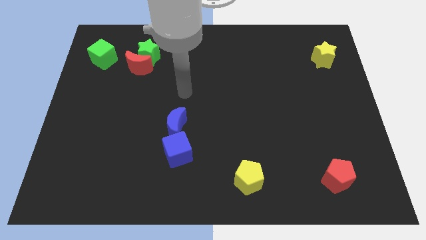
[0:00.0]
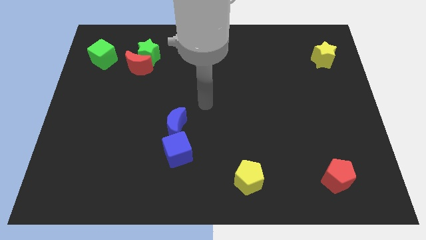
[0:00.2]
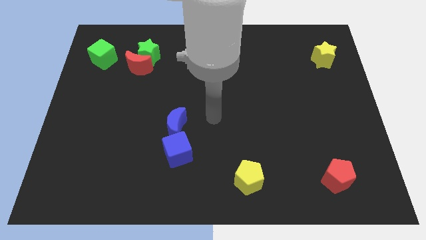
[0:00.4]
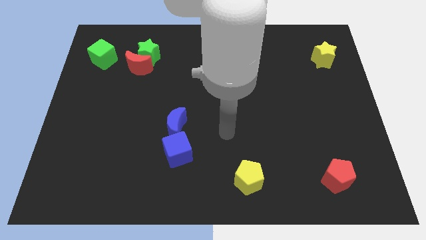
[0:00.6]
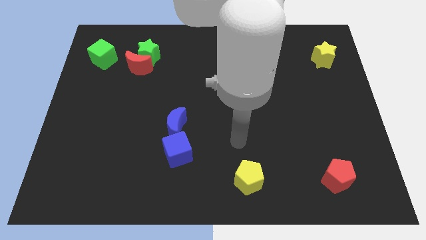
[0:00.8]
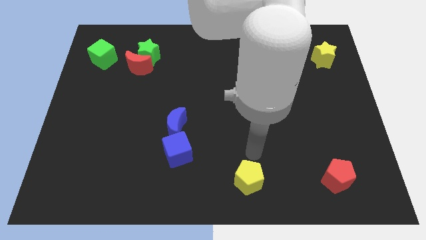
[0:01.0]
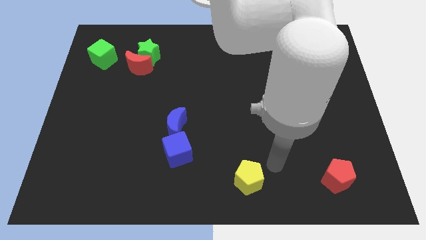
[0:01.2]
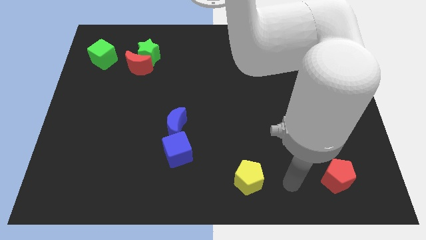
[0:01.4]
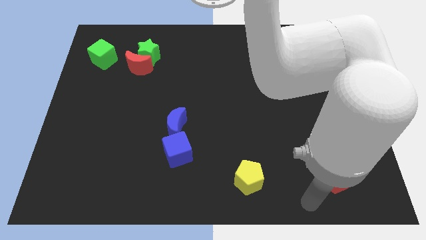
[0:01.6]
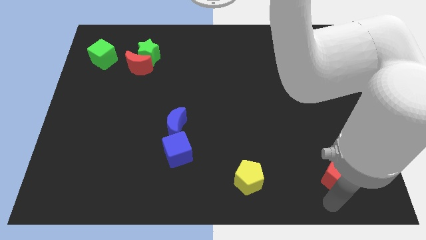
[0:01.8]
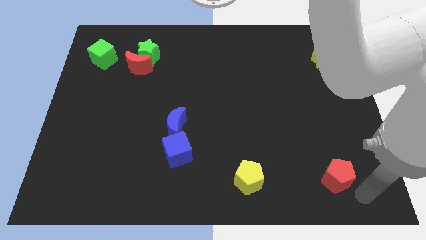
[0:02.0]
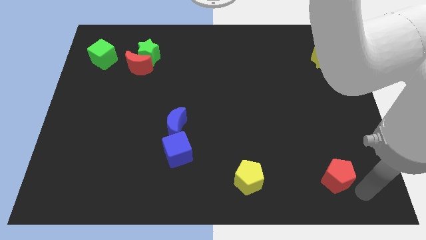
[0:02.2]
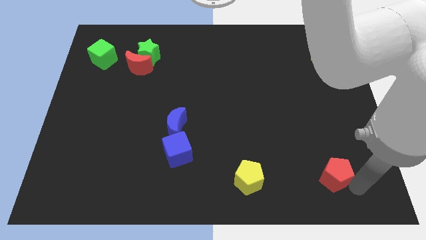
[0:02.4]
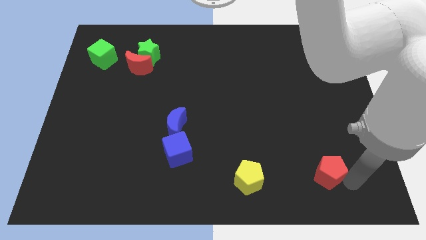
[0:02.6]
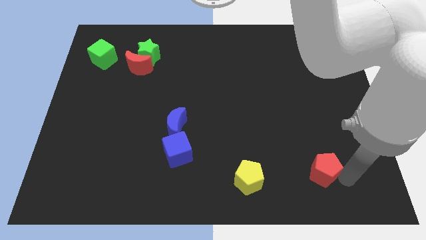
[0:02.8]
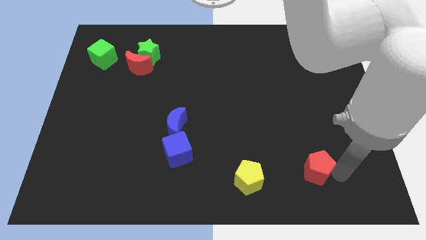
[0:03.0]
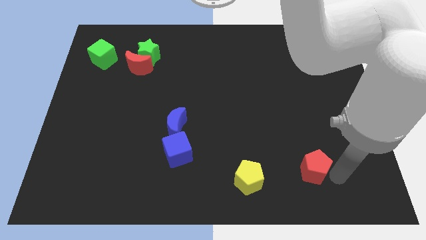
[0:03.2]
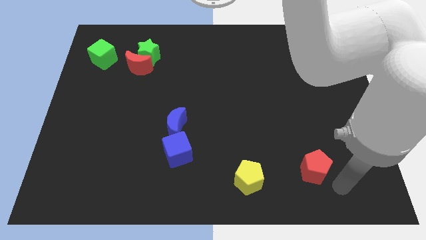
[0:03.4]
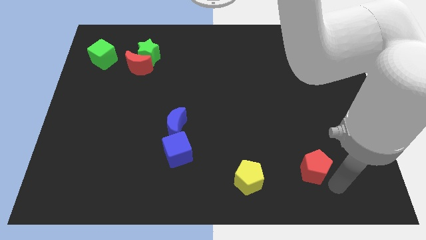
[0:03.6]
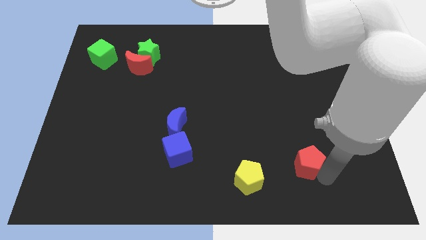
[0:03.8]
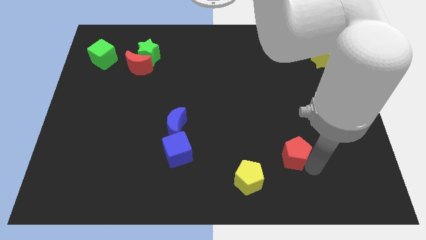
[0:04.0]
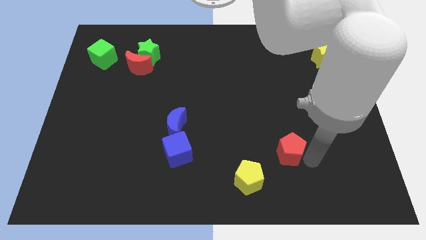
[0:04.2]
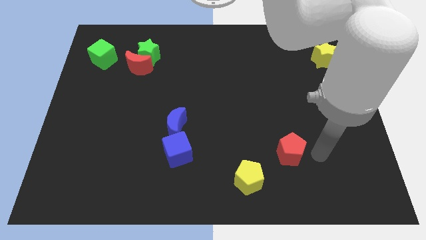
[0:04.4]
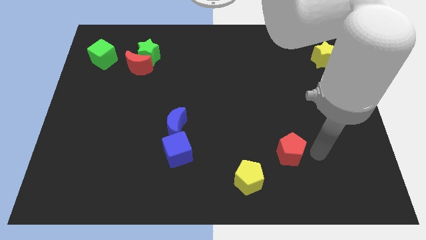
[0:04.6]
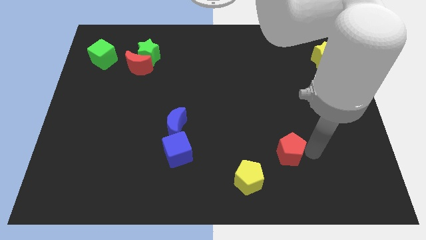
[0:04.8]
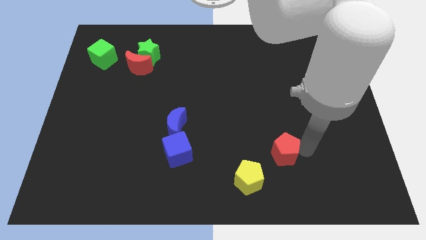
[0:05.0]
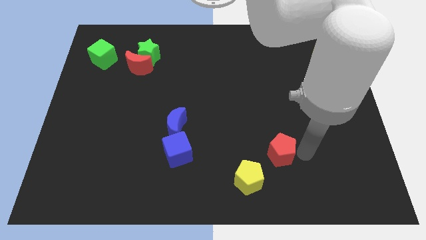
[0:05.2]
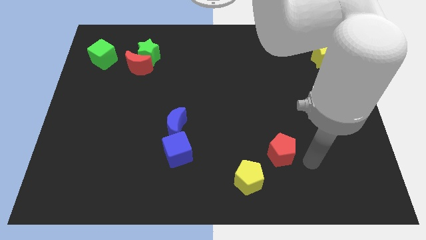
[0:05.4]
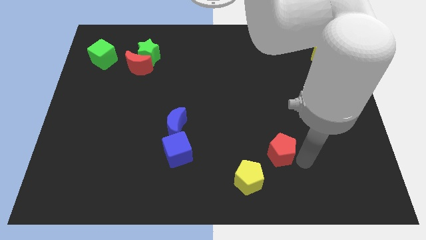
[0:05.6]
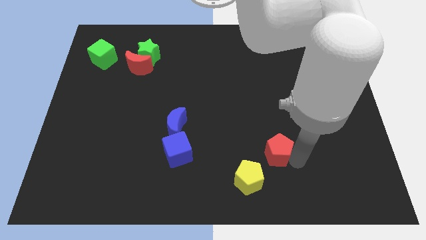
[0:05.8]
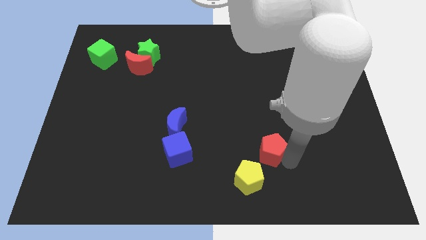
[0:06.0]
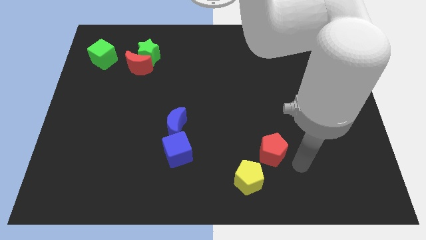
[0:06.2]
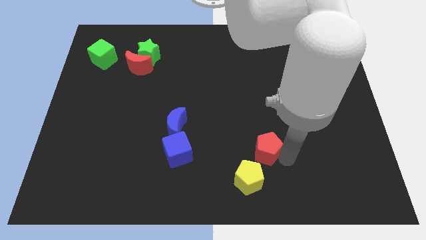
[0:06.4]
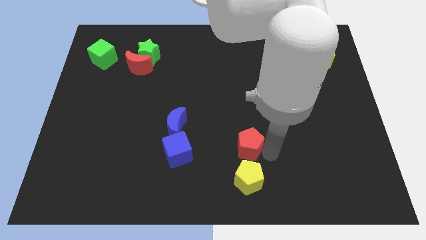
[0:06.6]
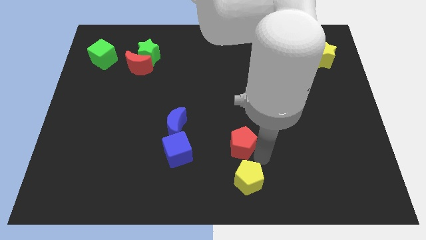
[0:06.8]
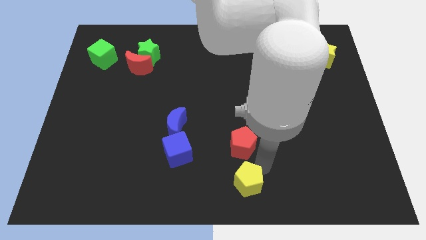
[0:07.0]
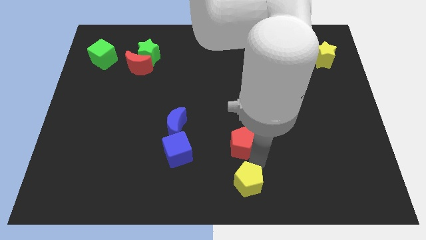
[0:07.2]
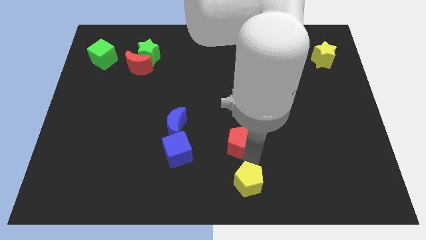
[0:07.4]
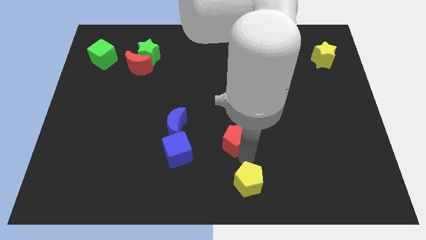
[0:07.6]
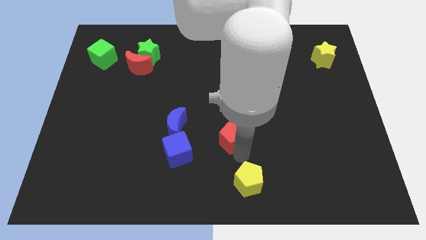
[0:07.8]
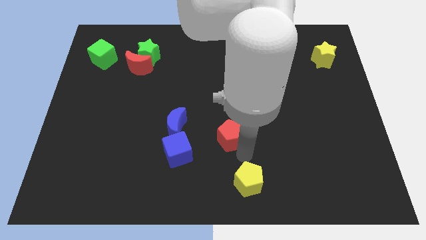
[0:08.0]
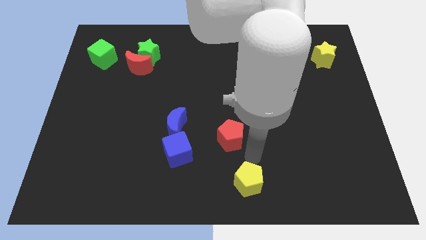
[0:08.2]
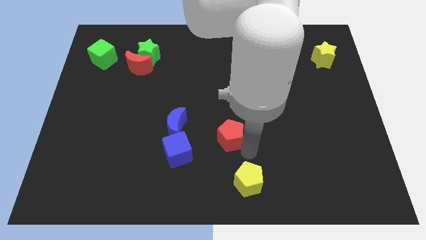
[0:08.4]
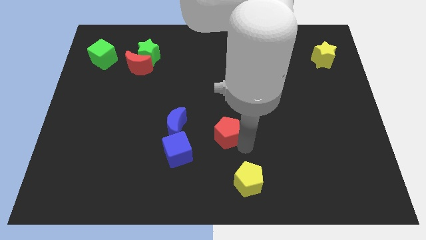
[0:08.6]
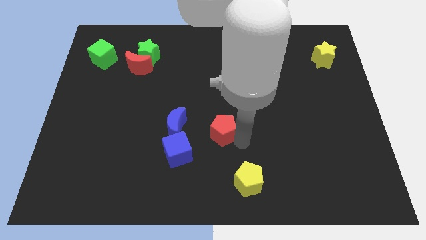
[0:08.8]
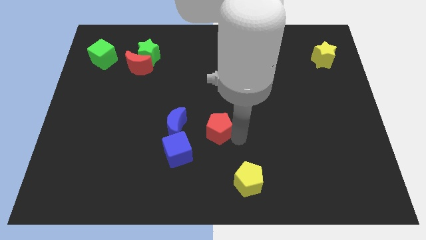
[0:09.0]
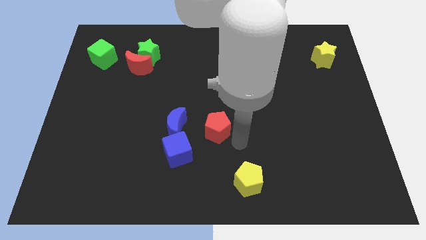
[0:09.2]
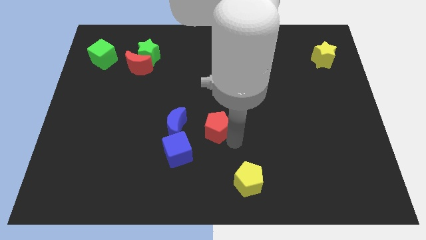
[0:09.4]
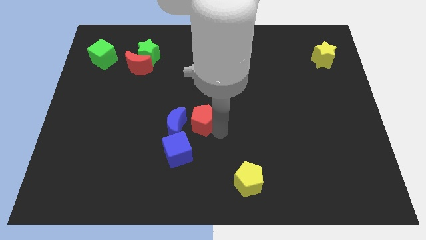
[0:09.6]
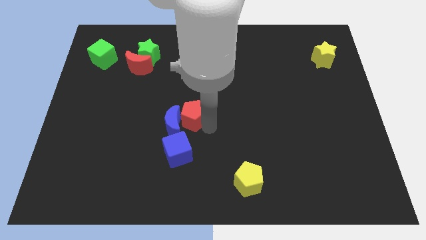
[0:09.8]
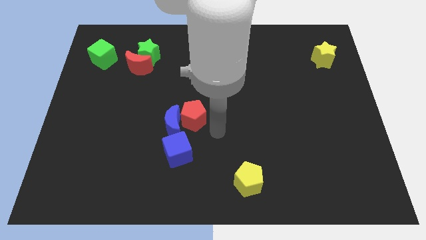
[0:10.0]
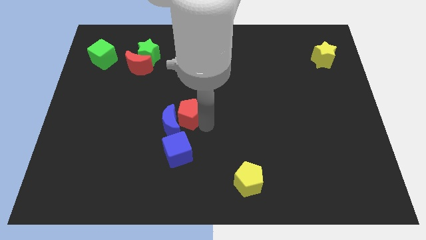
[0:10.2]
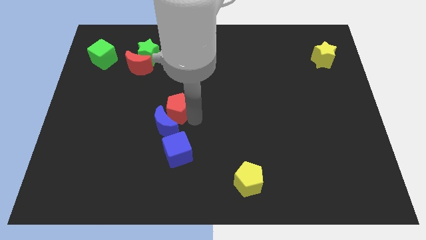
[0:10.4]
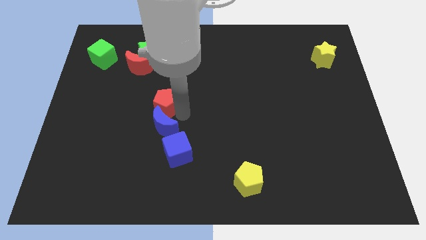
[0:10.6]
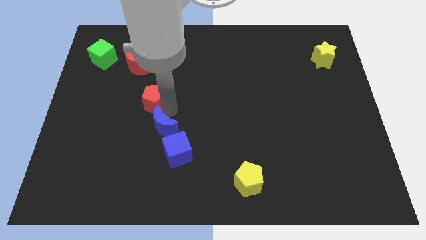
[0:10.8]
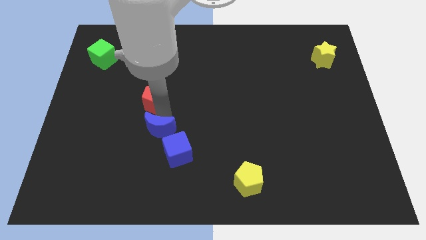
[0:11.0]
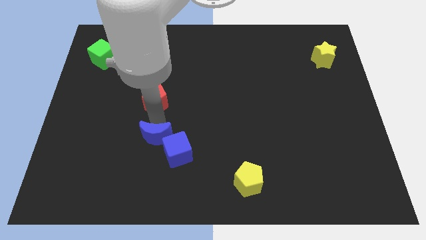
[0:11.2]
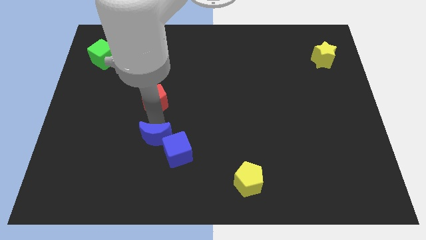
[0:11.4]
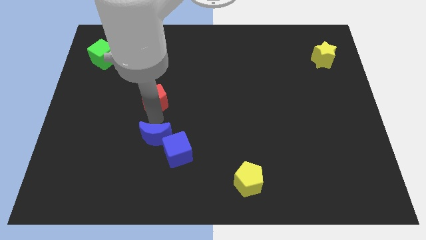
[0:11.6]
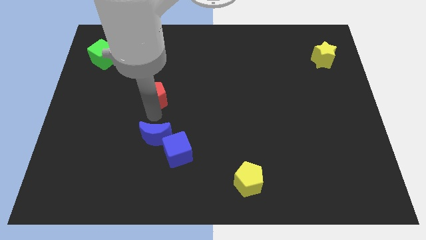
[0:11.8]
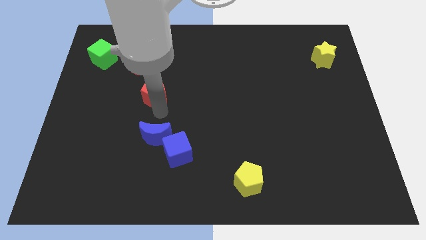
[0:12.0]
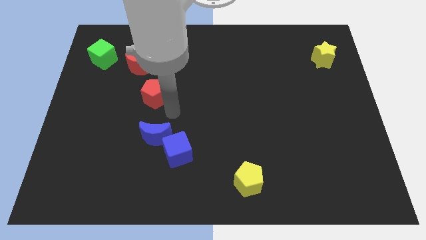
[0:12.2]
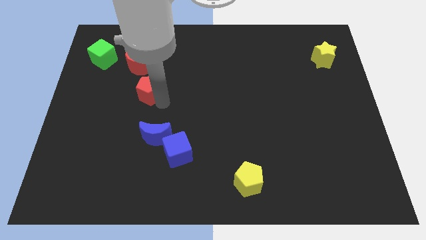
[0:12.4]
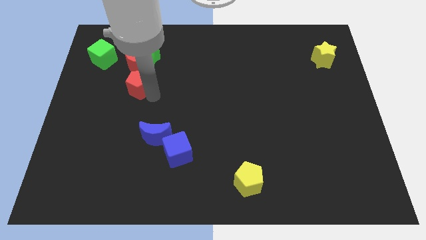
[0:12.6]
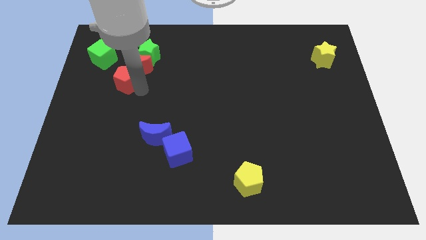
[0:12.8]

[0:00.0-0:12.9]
slide the red pentagon to the bottom left of the green star

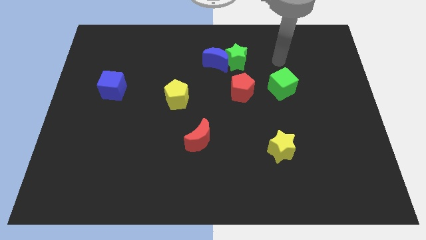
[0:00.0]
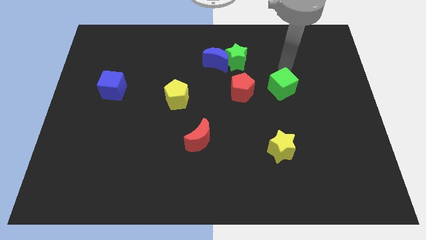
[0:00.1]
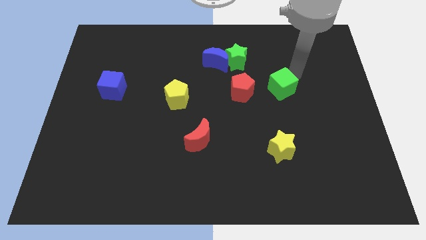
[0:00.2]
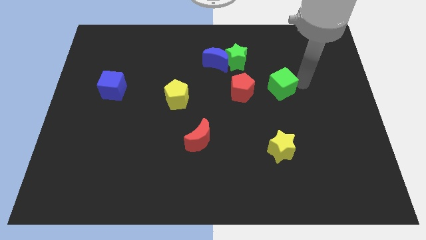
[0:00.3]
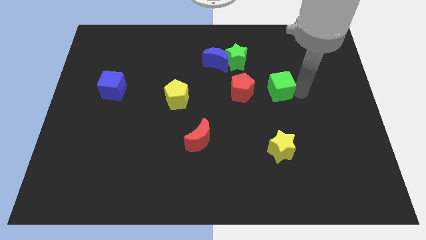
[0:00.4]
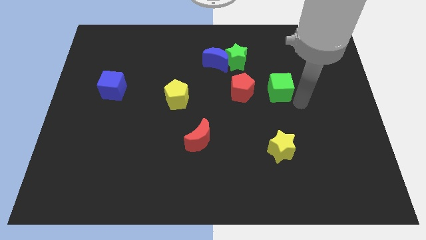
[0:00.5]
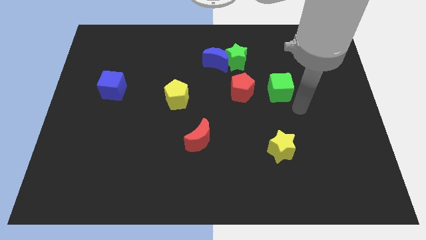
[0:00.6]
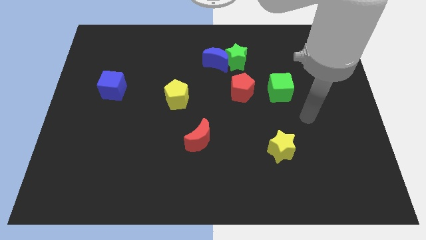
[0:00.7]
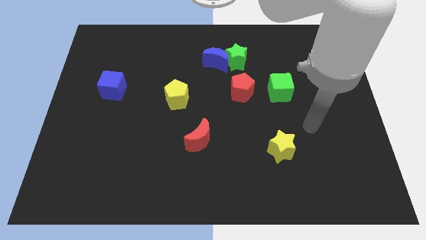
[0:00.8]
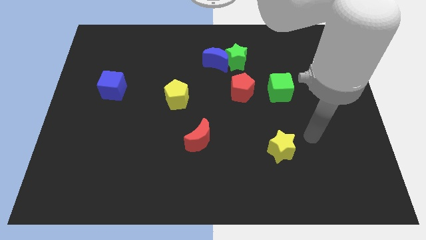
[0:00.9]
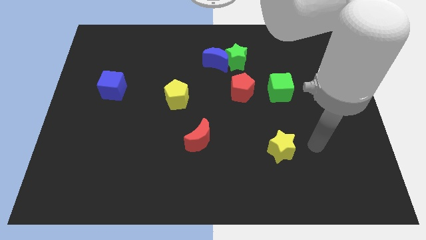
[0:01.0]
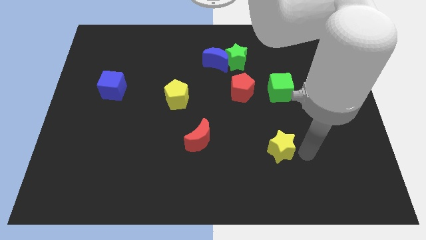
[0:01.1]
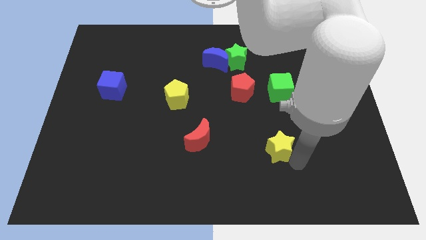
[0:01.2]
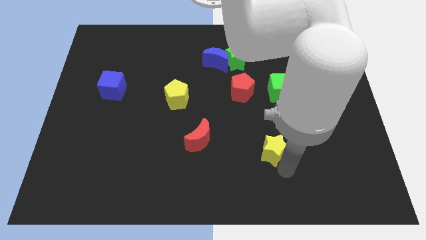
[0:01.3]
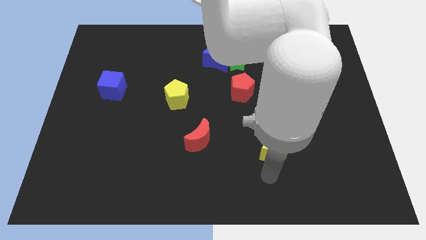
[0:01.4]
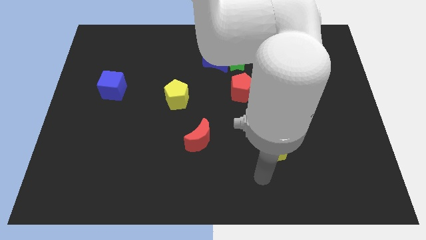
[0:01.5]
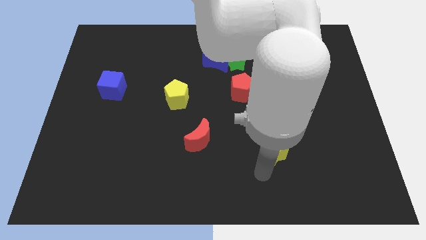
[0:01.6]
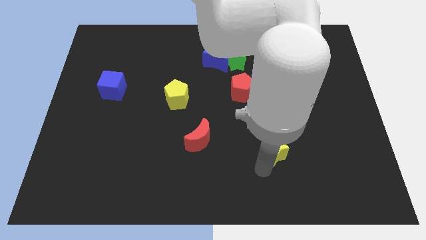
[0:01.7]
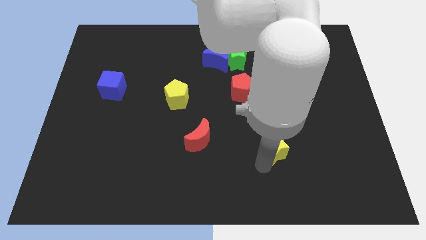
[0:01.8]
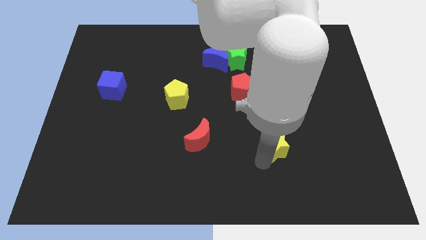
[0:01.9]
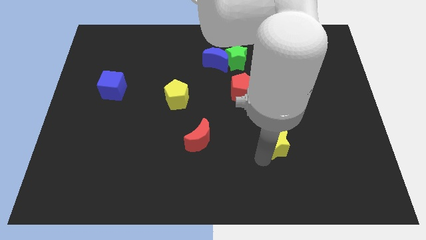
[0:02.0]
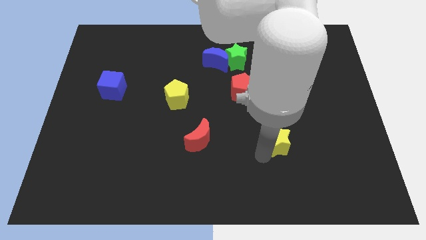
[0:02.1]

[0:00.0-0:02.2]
slide the yellow star below the green cube
